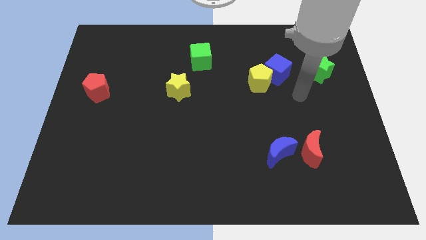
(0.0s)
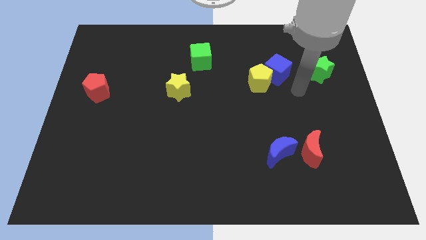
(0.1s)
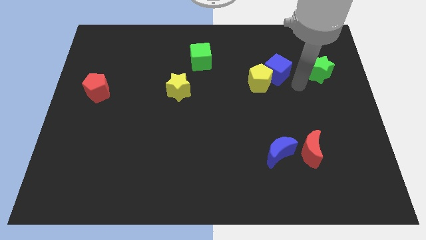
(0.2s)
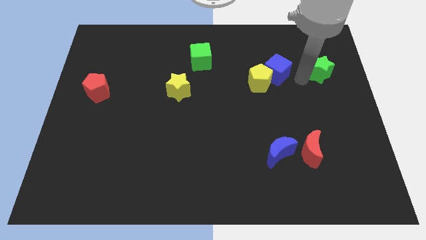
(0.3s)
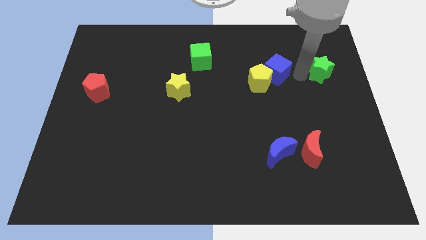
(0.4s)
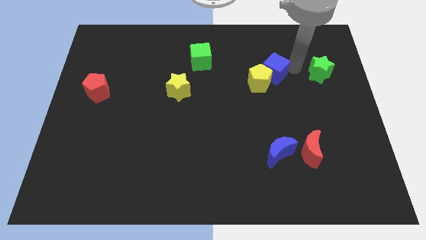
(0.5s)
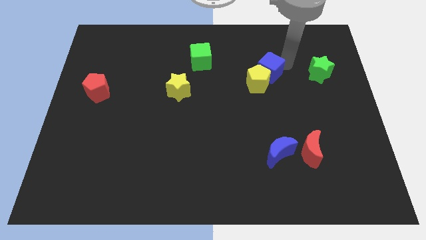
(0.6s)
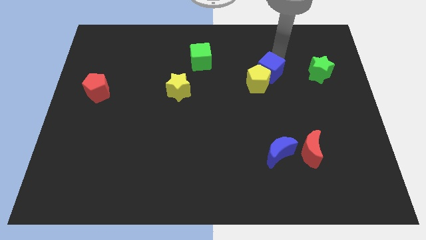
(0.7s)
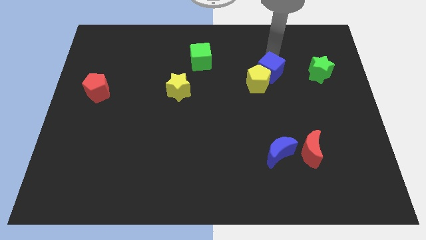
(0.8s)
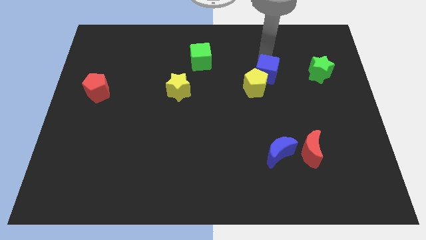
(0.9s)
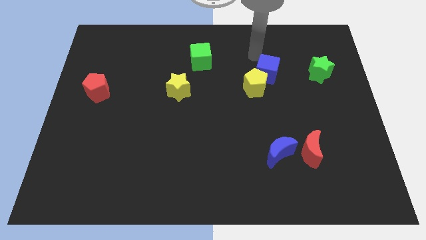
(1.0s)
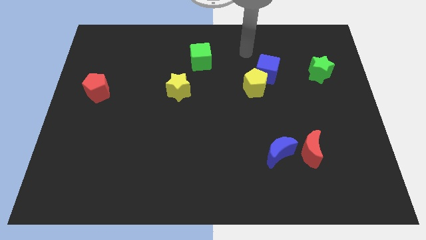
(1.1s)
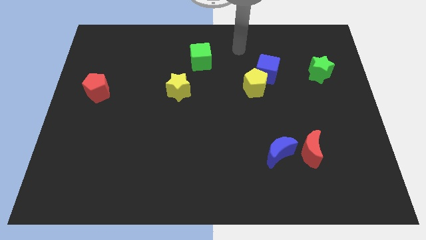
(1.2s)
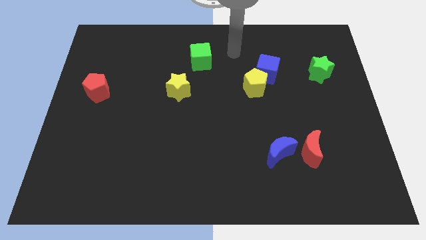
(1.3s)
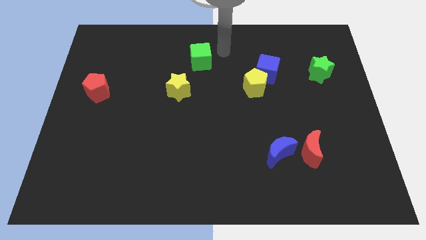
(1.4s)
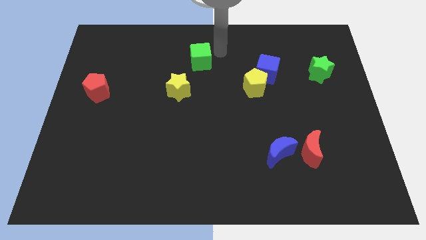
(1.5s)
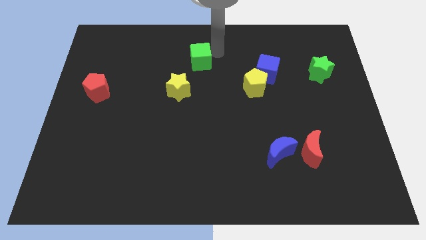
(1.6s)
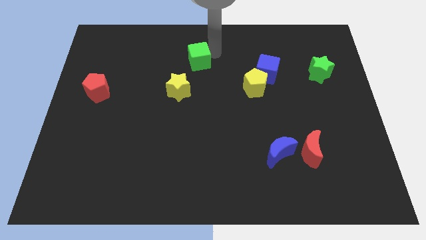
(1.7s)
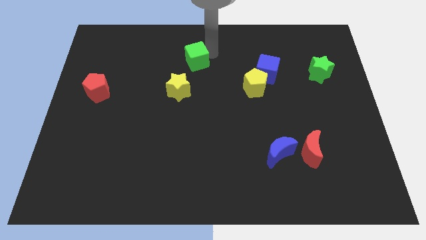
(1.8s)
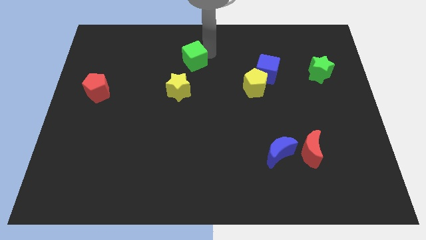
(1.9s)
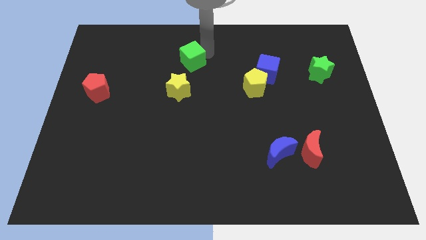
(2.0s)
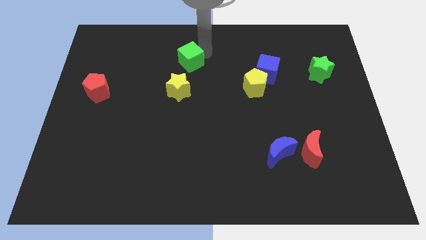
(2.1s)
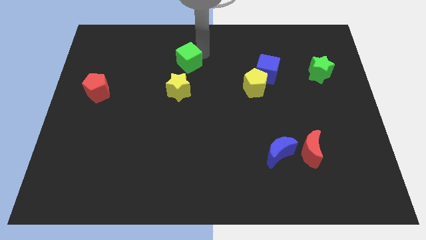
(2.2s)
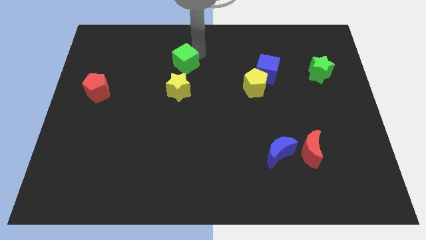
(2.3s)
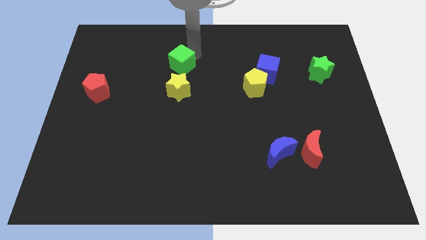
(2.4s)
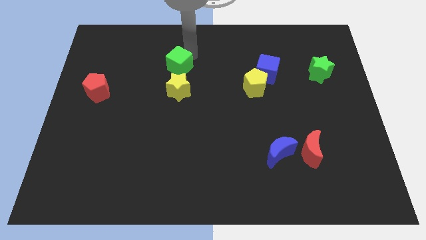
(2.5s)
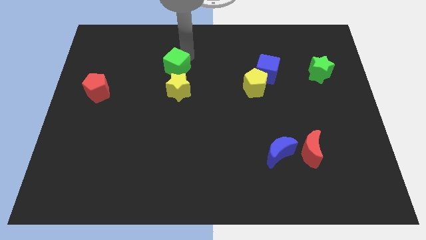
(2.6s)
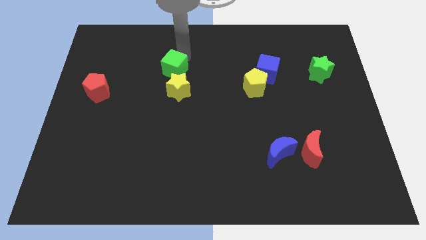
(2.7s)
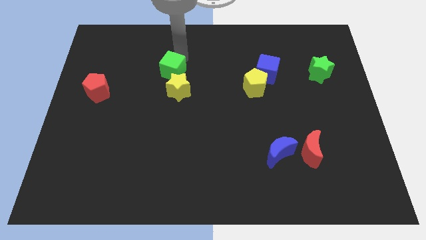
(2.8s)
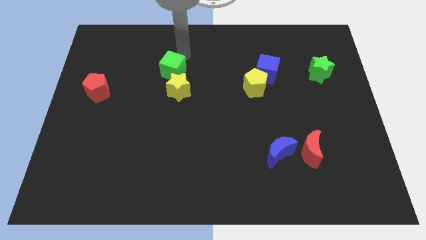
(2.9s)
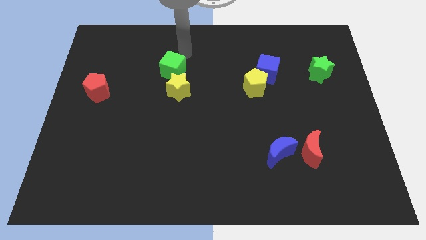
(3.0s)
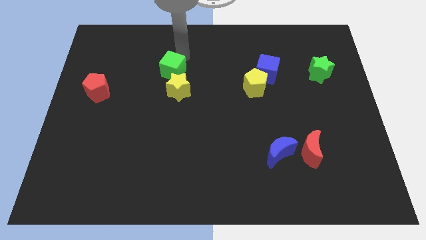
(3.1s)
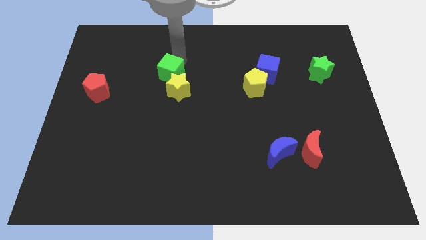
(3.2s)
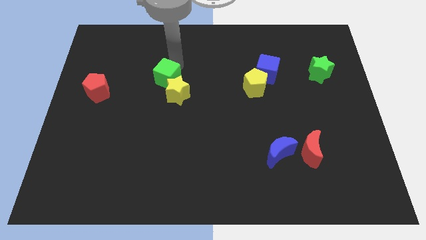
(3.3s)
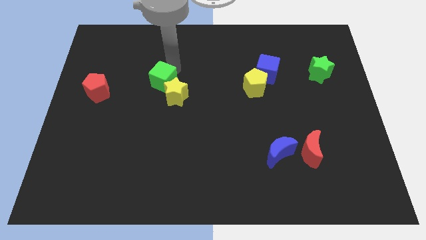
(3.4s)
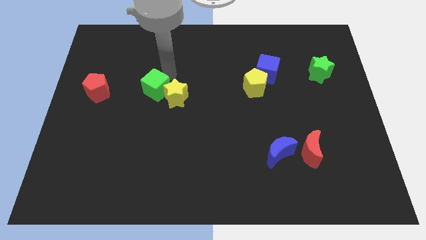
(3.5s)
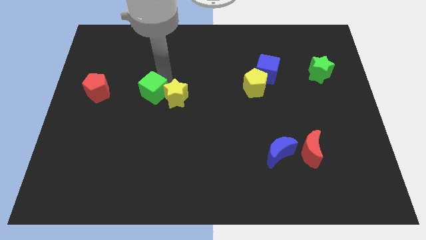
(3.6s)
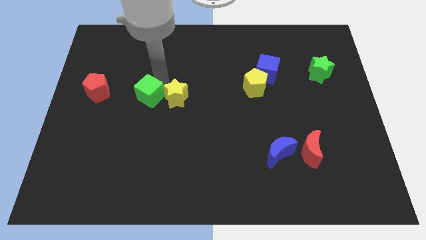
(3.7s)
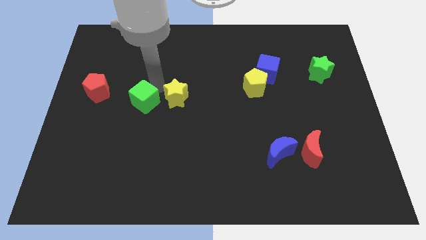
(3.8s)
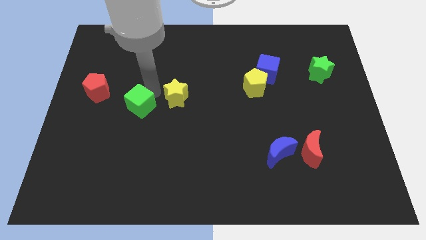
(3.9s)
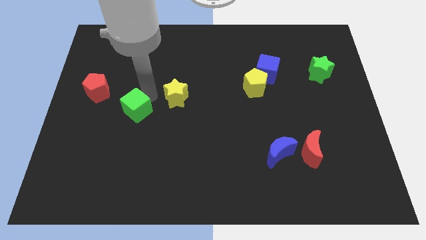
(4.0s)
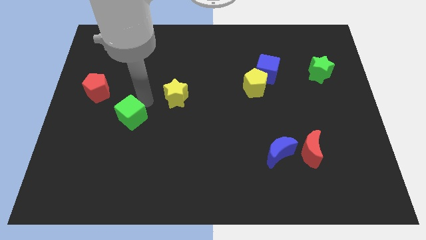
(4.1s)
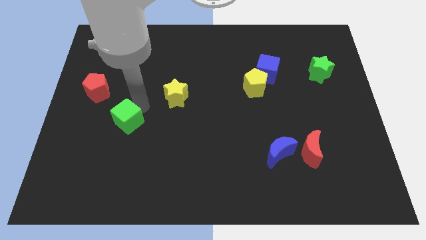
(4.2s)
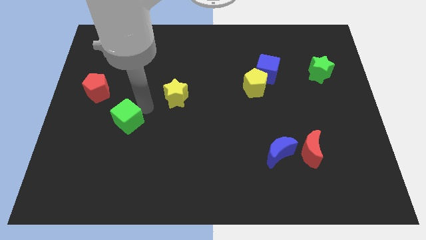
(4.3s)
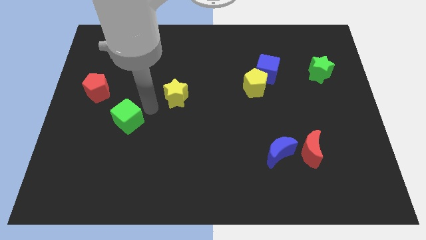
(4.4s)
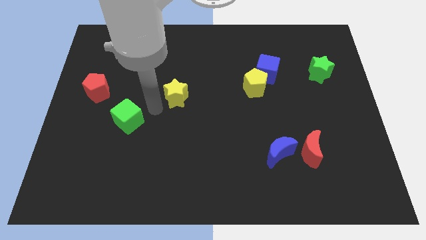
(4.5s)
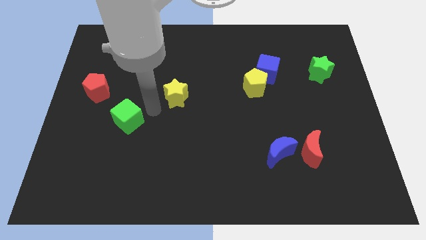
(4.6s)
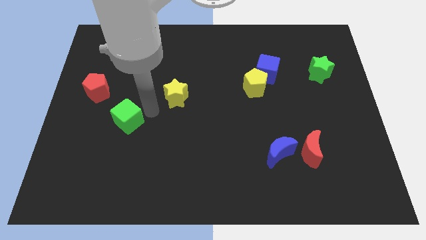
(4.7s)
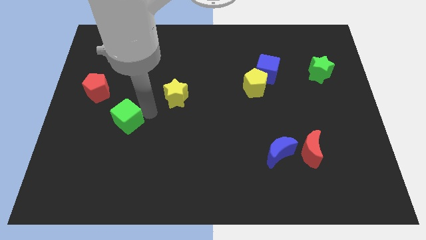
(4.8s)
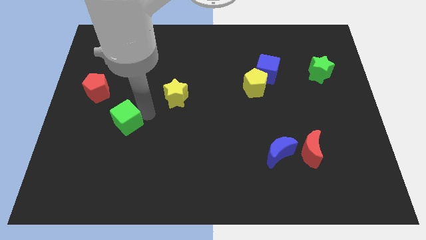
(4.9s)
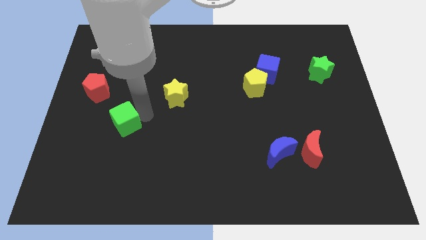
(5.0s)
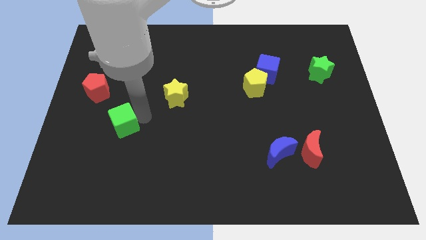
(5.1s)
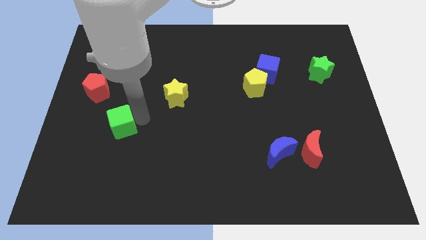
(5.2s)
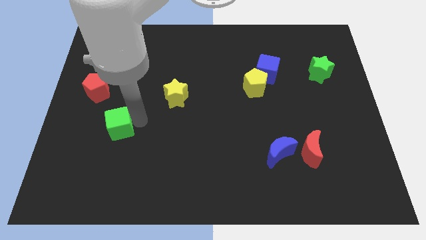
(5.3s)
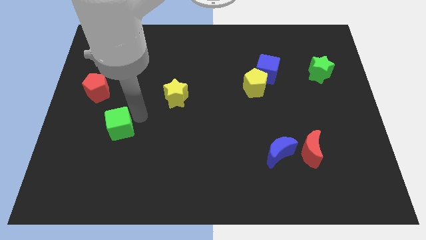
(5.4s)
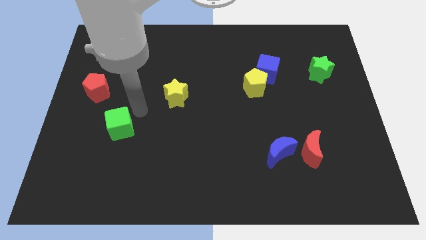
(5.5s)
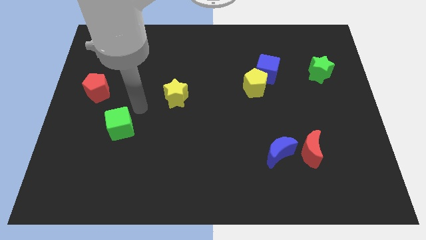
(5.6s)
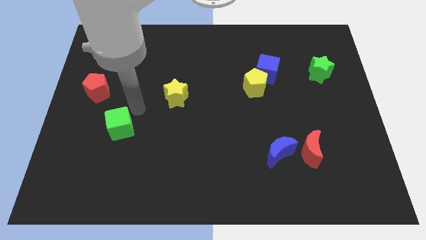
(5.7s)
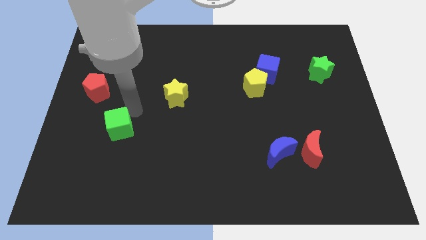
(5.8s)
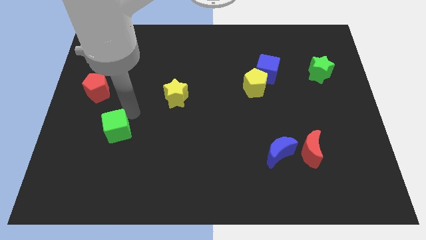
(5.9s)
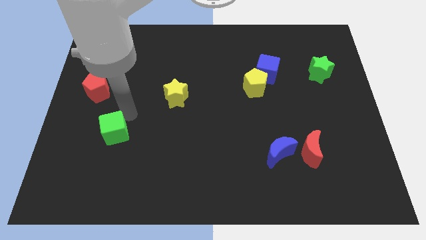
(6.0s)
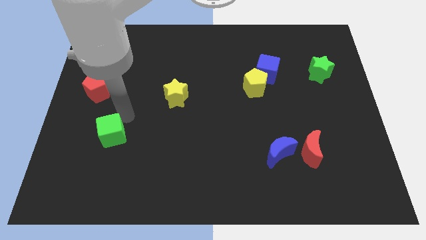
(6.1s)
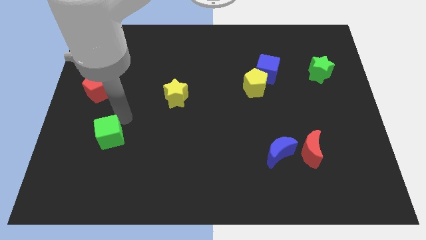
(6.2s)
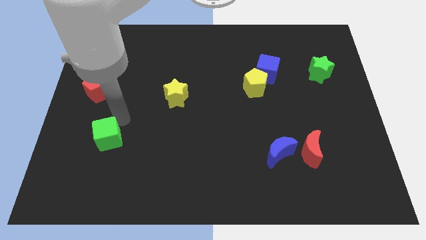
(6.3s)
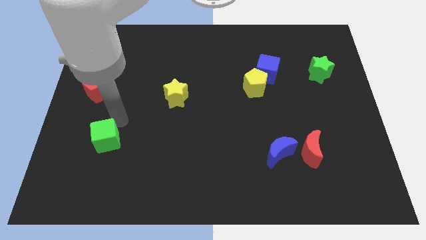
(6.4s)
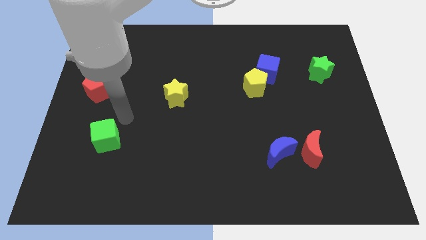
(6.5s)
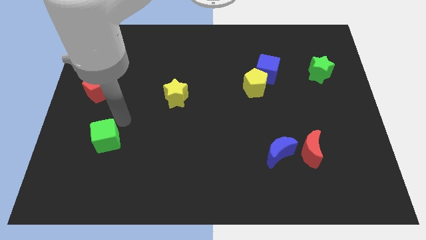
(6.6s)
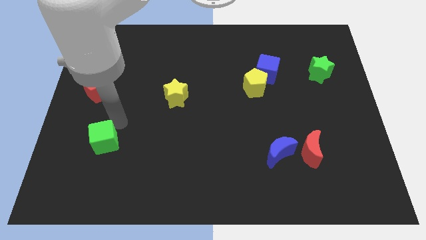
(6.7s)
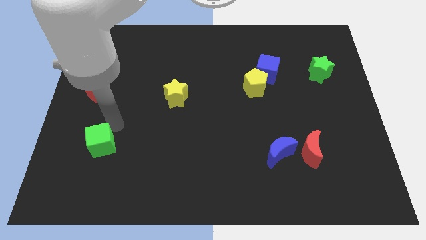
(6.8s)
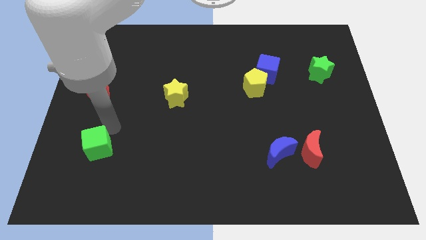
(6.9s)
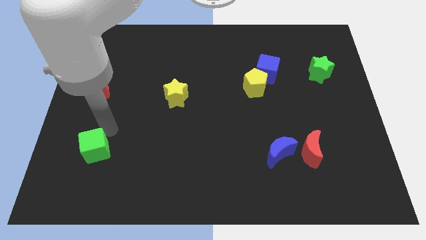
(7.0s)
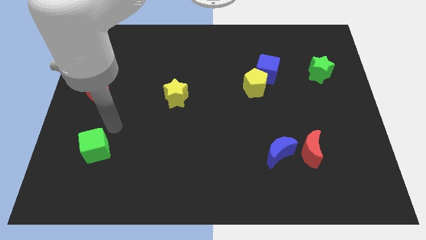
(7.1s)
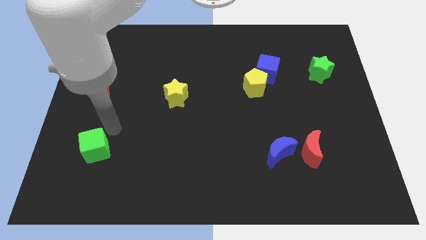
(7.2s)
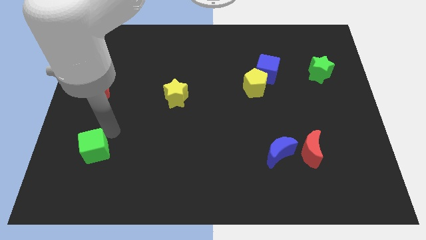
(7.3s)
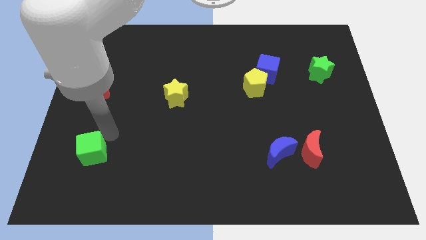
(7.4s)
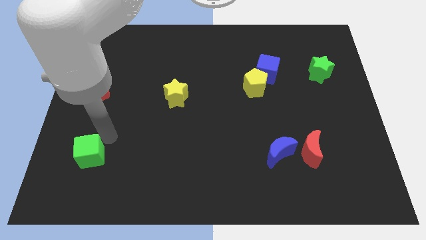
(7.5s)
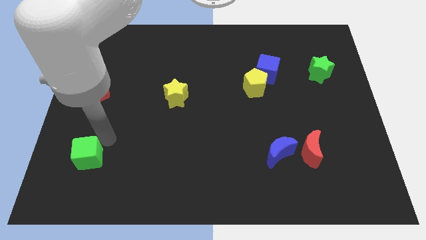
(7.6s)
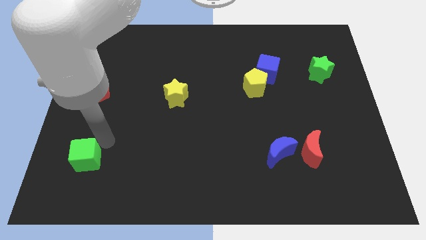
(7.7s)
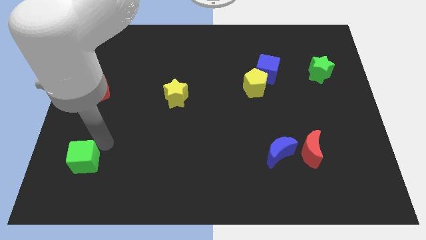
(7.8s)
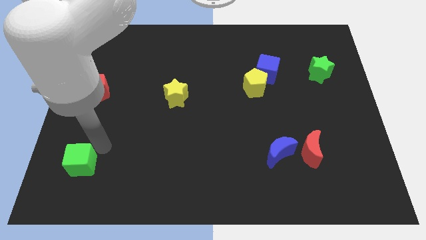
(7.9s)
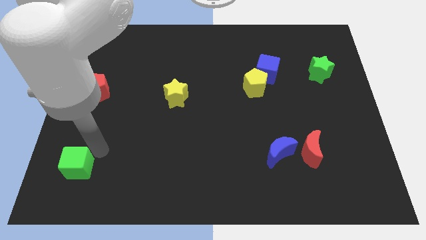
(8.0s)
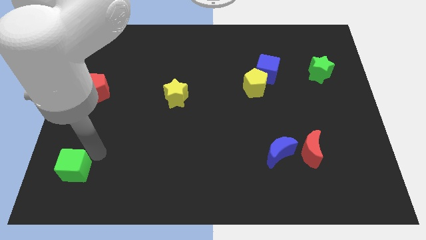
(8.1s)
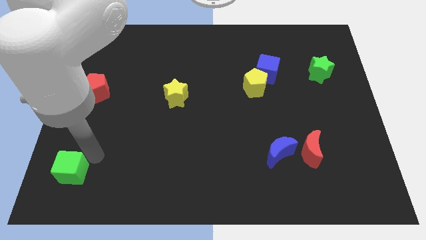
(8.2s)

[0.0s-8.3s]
slide the green cube to the bottom left
